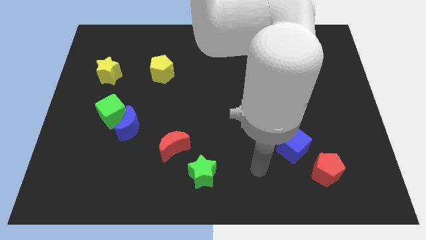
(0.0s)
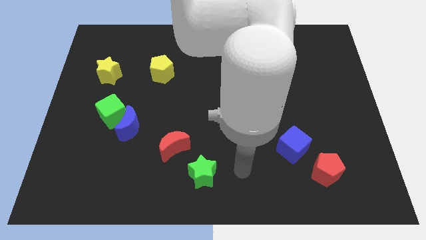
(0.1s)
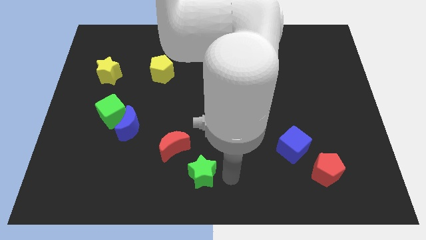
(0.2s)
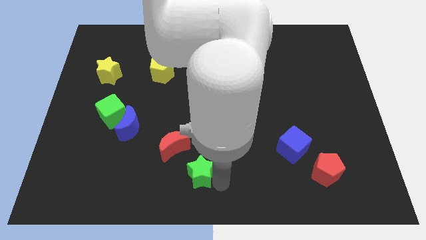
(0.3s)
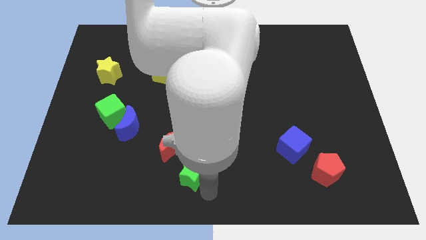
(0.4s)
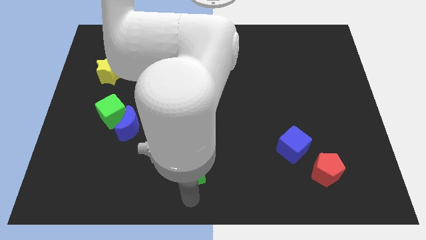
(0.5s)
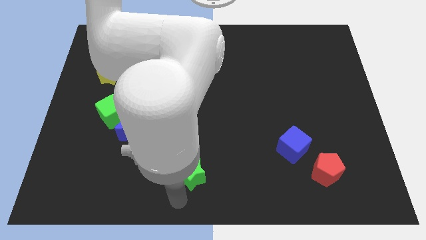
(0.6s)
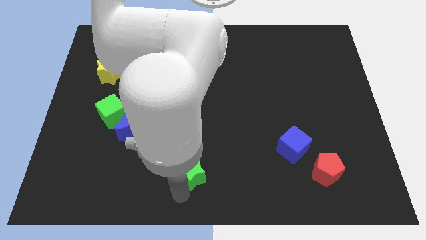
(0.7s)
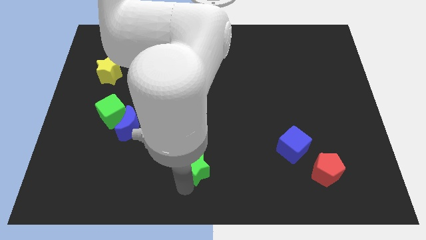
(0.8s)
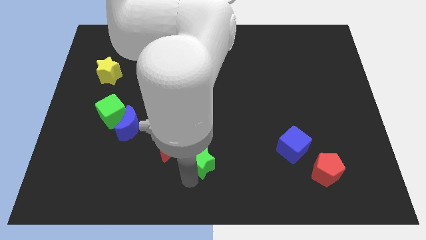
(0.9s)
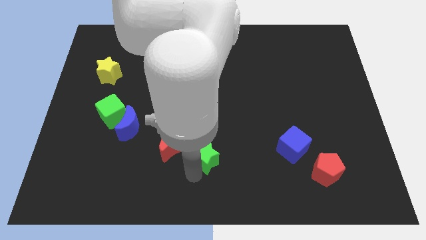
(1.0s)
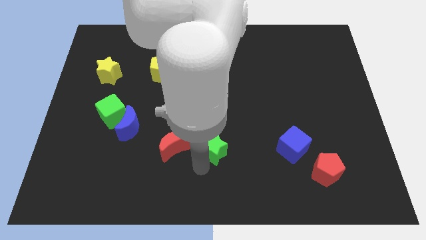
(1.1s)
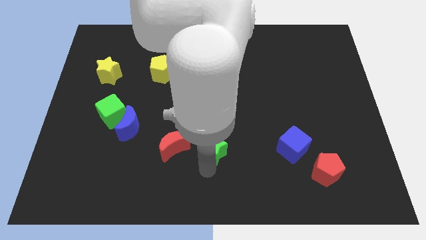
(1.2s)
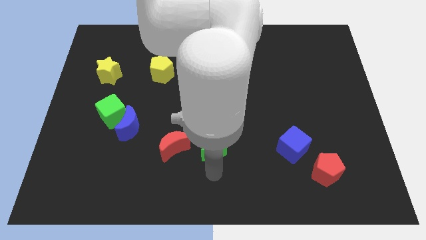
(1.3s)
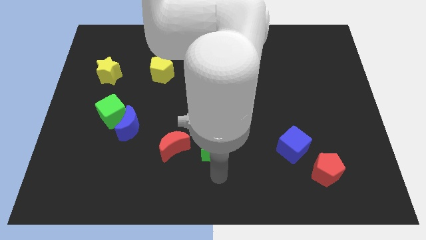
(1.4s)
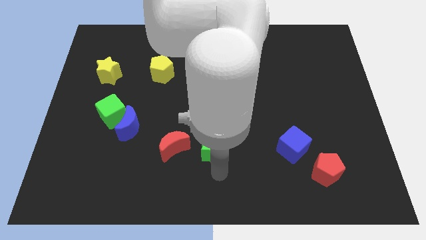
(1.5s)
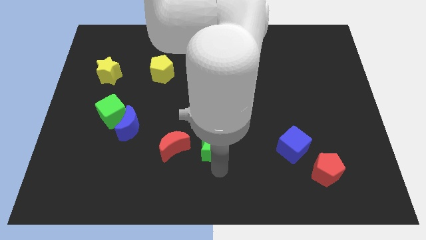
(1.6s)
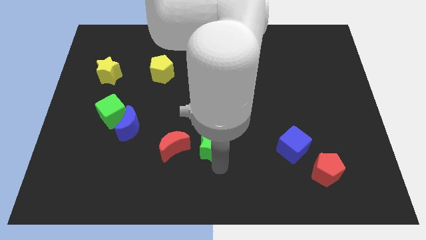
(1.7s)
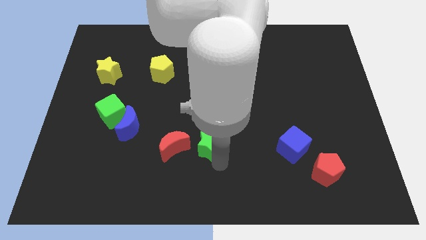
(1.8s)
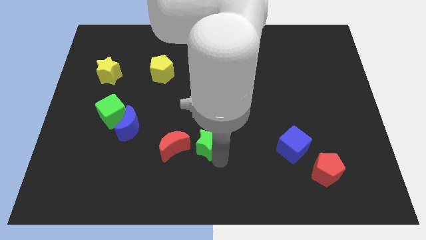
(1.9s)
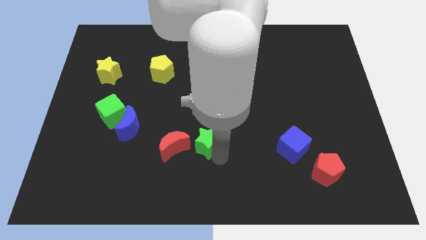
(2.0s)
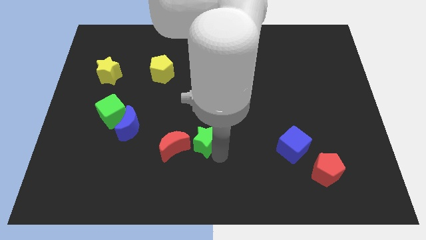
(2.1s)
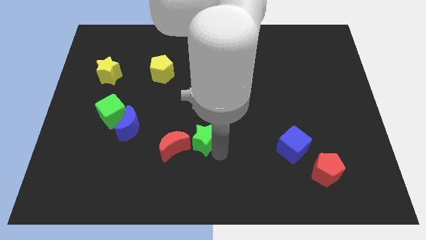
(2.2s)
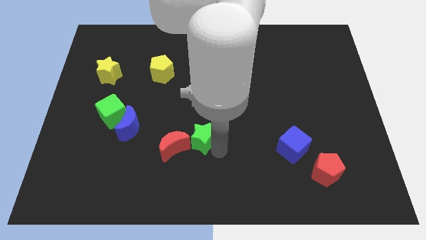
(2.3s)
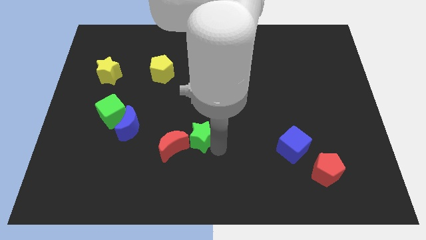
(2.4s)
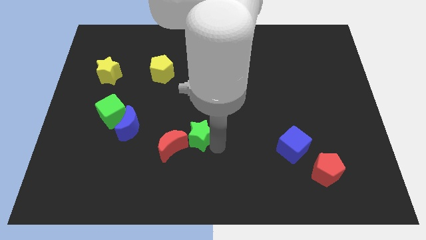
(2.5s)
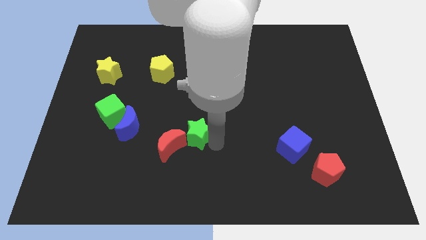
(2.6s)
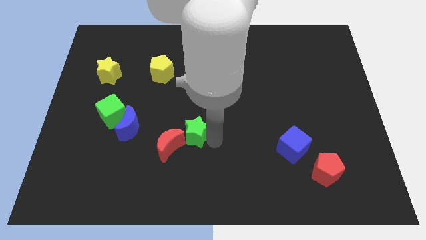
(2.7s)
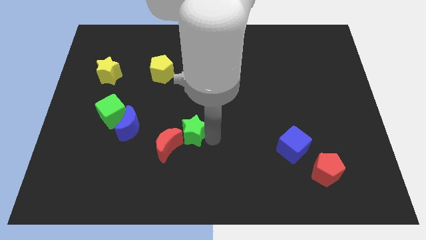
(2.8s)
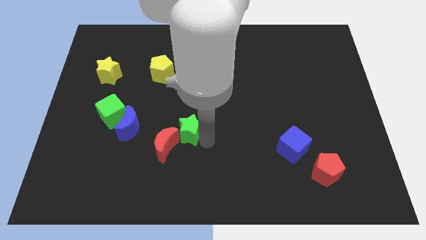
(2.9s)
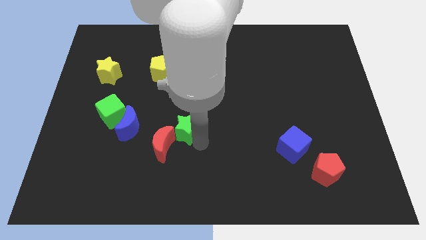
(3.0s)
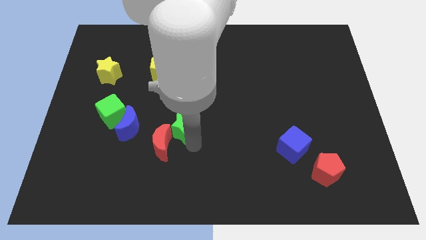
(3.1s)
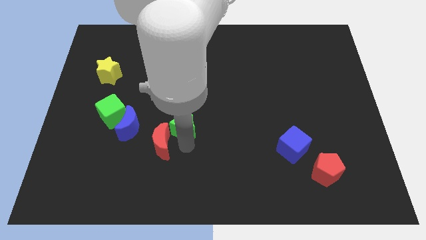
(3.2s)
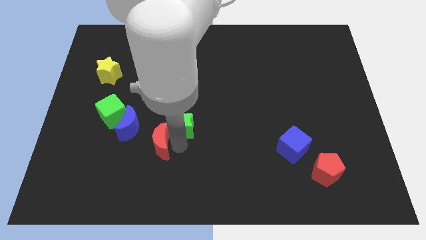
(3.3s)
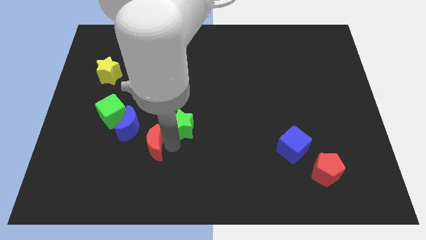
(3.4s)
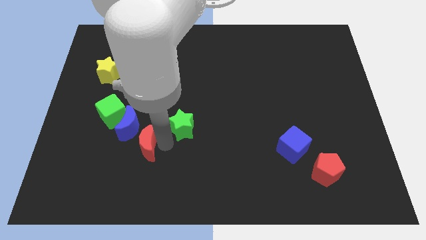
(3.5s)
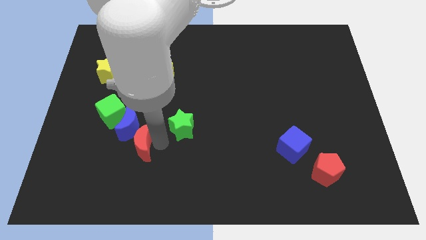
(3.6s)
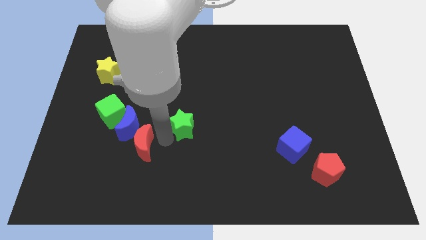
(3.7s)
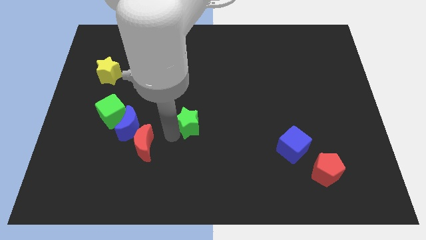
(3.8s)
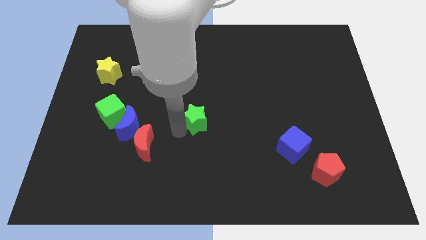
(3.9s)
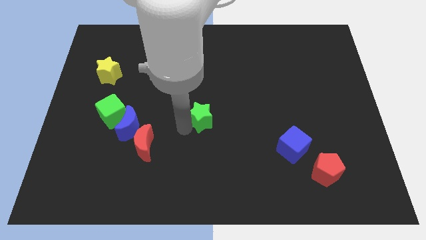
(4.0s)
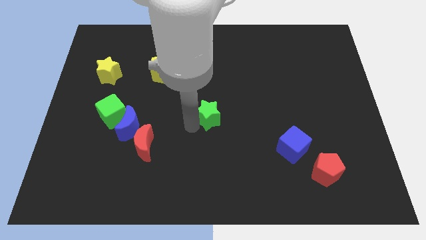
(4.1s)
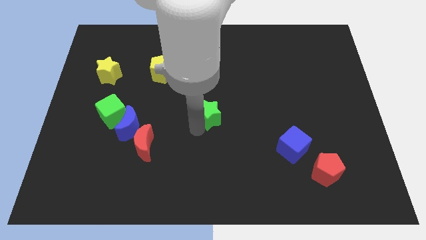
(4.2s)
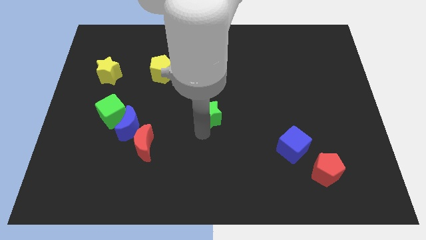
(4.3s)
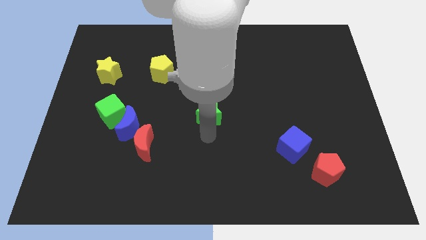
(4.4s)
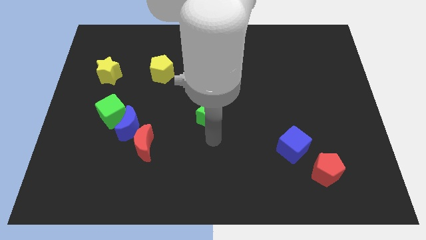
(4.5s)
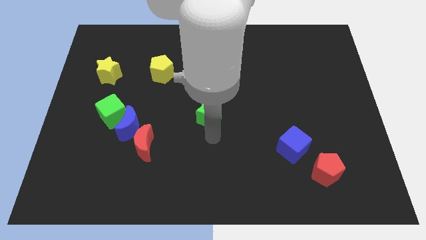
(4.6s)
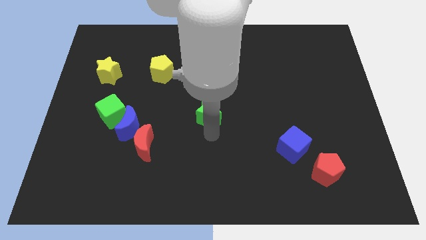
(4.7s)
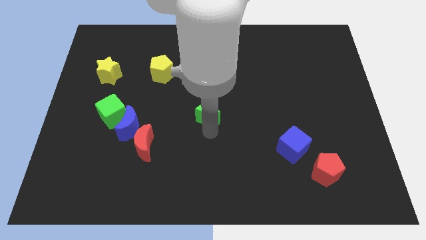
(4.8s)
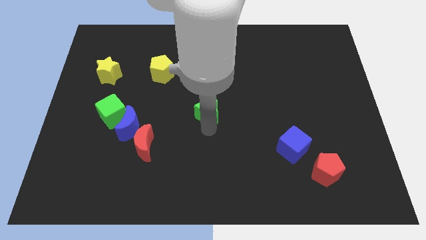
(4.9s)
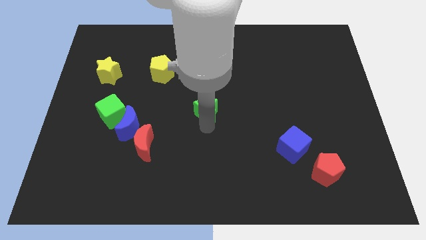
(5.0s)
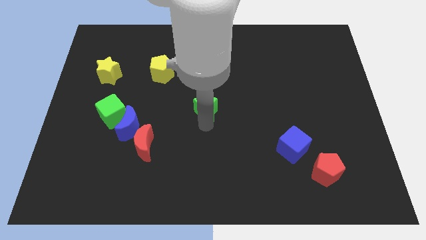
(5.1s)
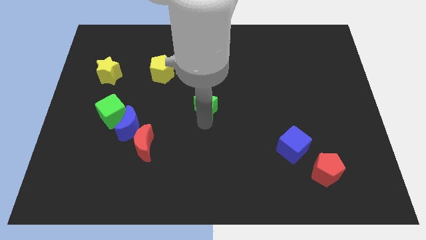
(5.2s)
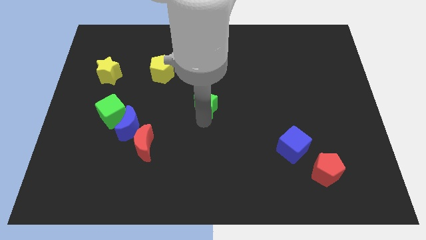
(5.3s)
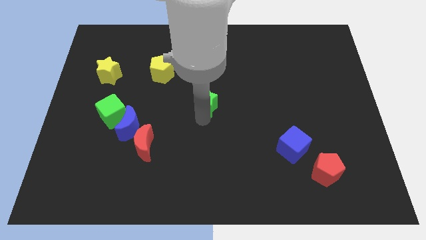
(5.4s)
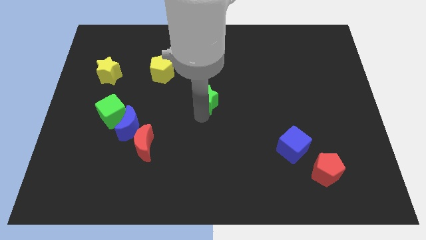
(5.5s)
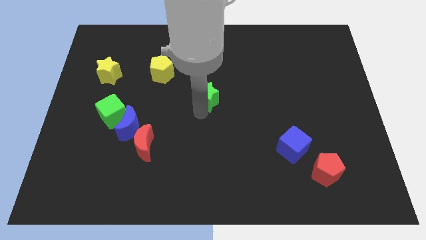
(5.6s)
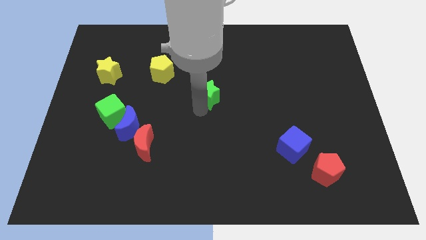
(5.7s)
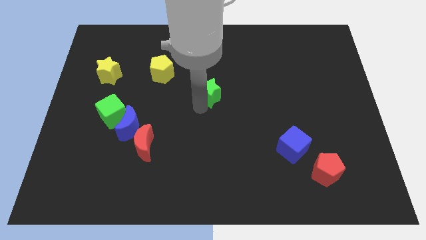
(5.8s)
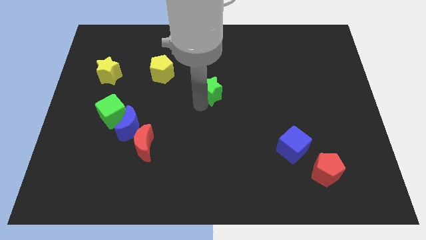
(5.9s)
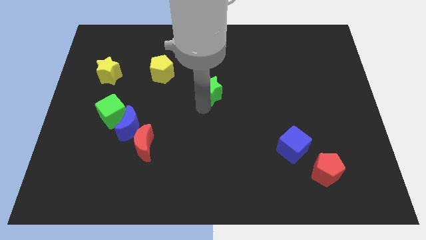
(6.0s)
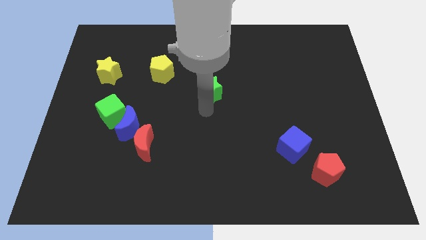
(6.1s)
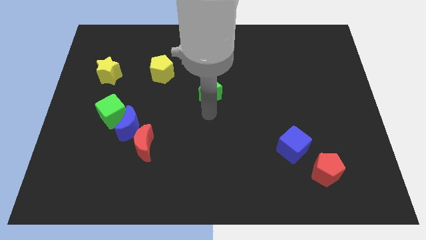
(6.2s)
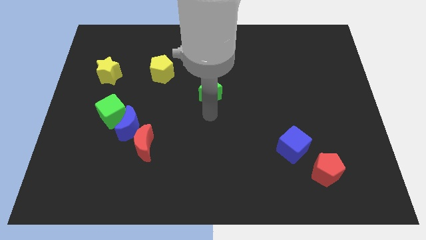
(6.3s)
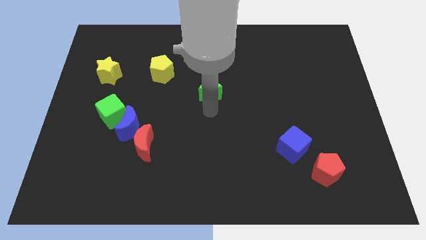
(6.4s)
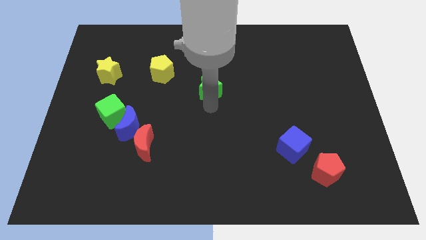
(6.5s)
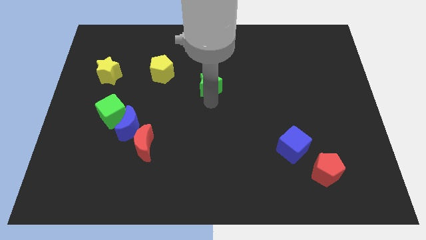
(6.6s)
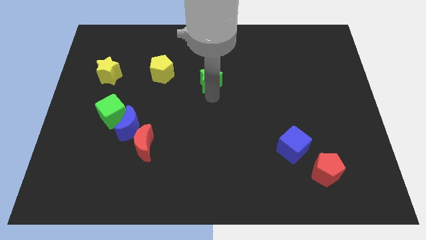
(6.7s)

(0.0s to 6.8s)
put the green star to the right of the yellow pentagon

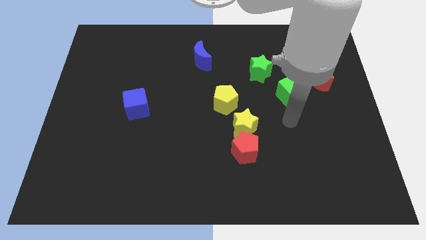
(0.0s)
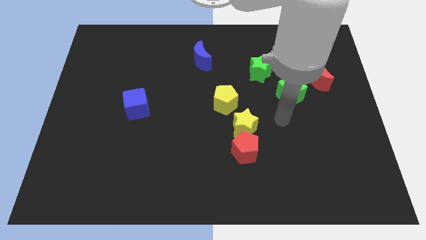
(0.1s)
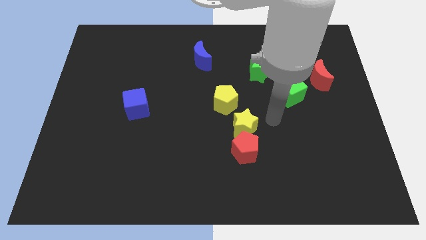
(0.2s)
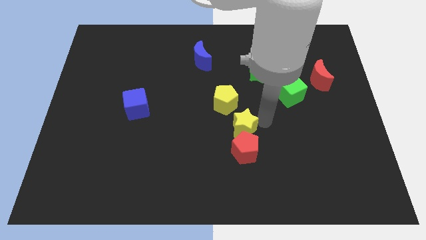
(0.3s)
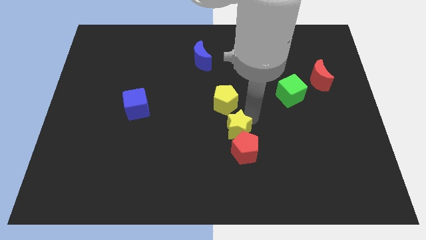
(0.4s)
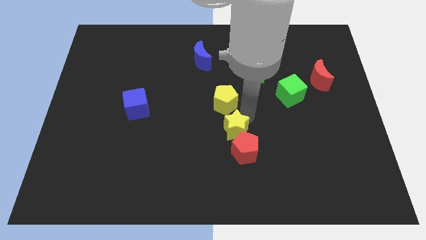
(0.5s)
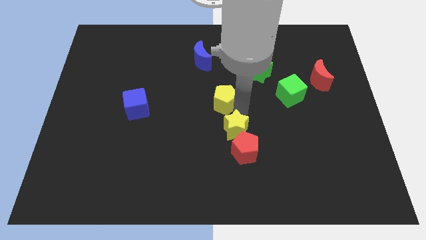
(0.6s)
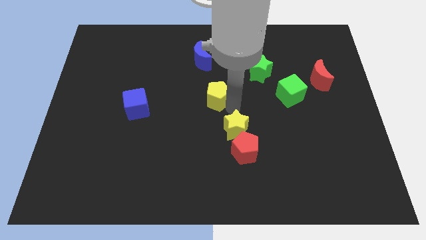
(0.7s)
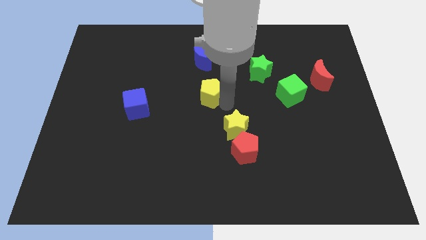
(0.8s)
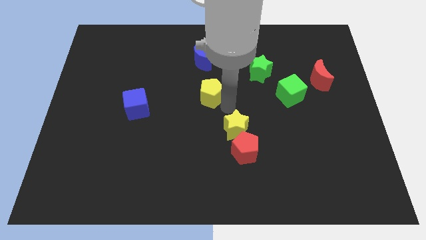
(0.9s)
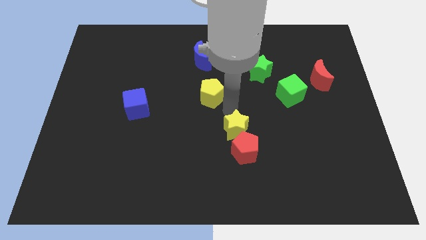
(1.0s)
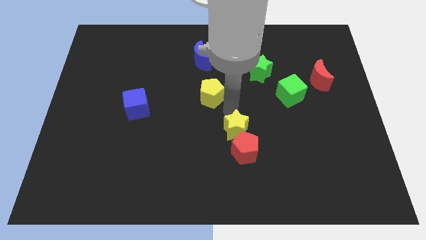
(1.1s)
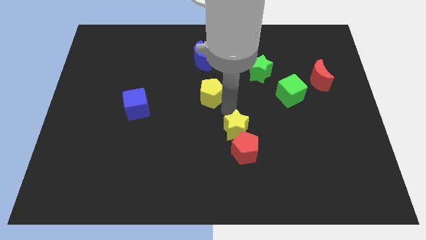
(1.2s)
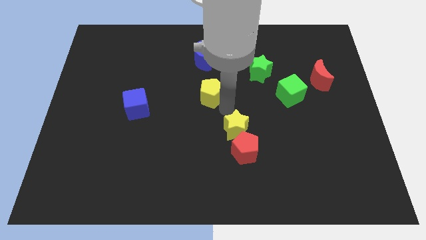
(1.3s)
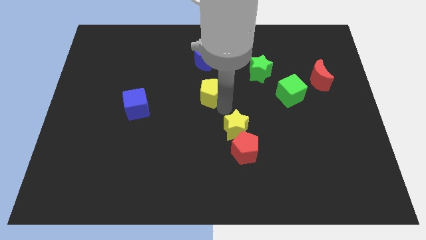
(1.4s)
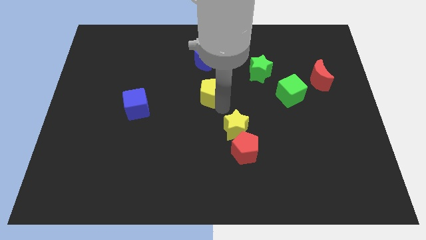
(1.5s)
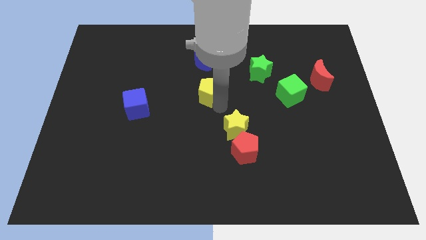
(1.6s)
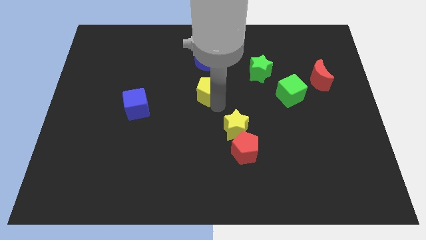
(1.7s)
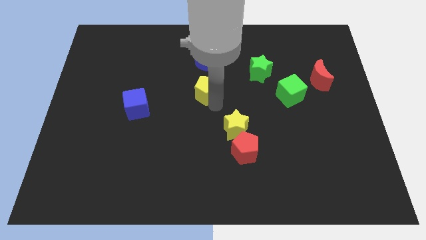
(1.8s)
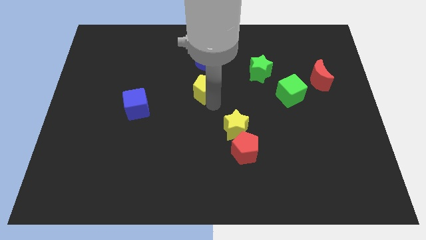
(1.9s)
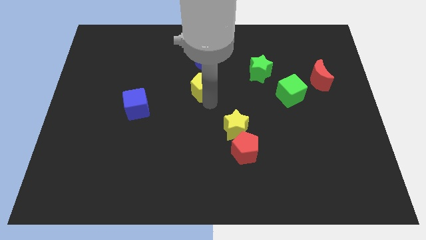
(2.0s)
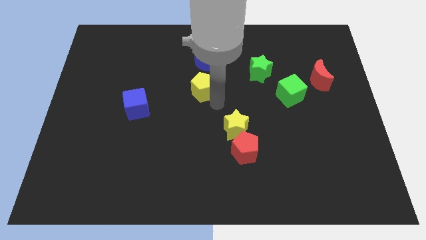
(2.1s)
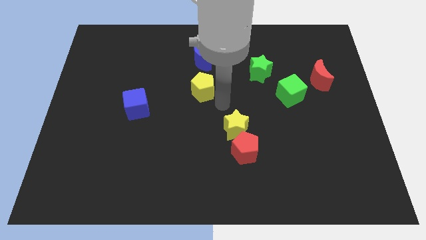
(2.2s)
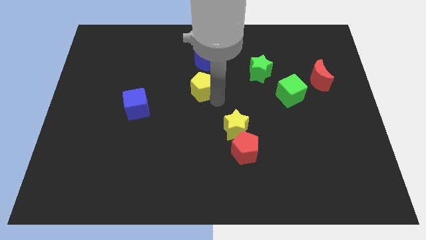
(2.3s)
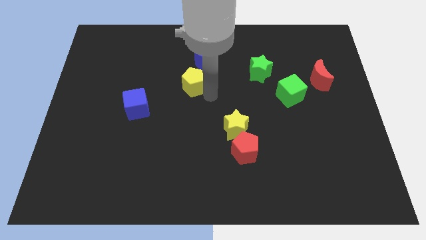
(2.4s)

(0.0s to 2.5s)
push the yellow pentagon diagonally down and to the left of the blue moon
